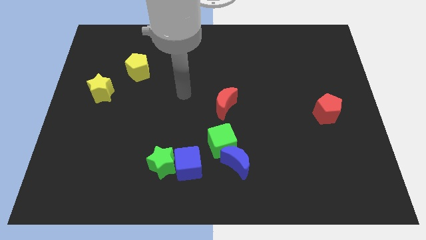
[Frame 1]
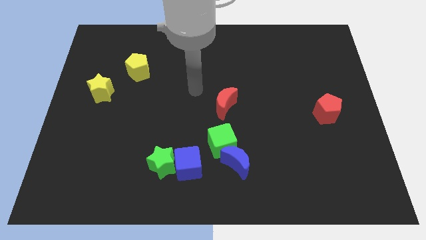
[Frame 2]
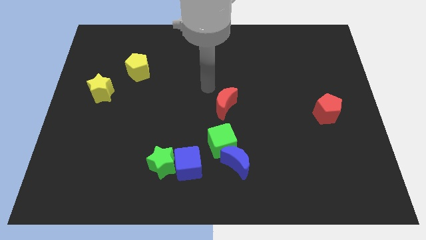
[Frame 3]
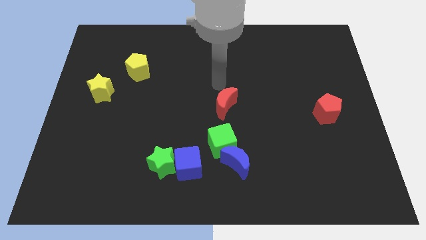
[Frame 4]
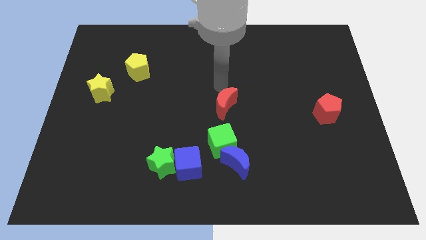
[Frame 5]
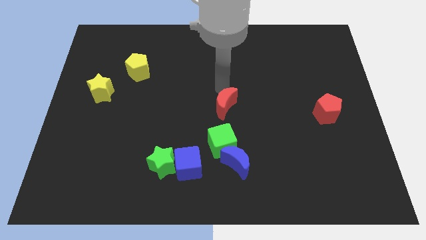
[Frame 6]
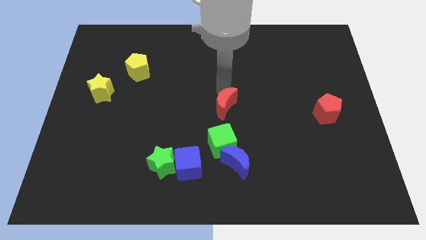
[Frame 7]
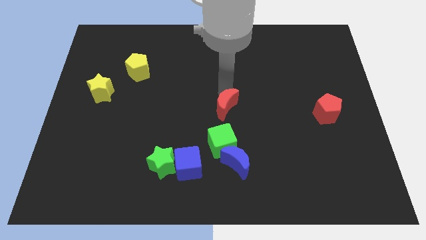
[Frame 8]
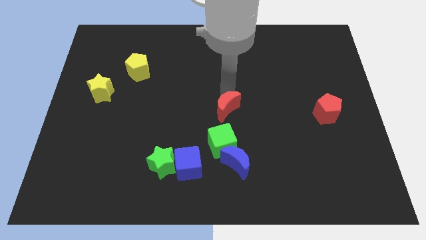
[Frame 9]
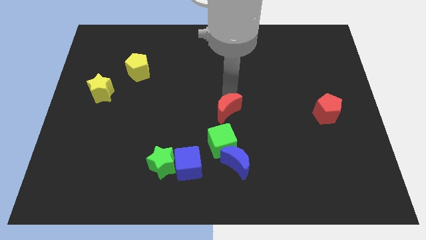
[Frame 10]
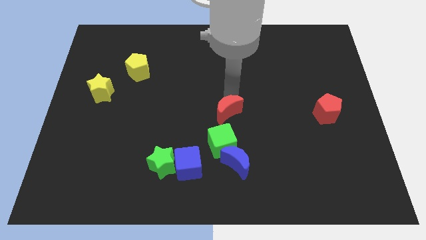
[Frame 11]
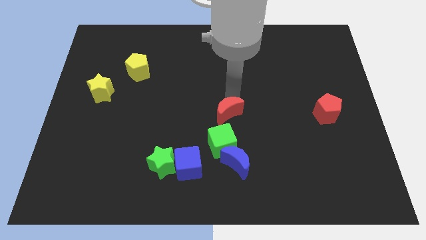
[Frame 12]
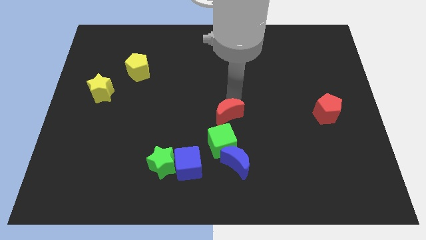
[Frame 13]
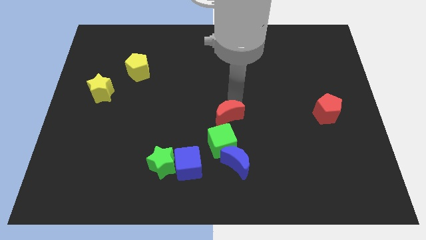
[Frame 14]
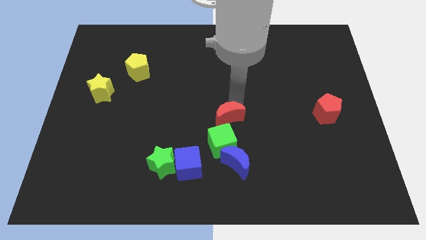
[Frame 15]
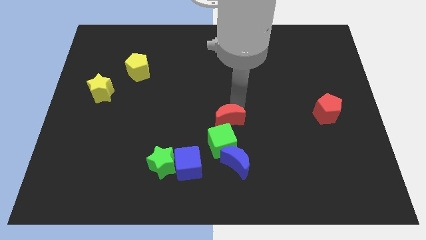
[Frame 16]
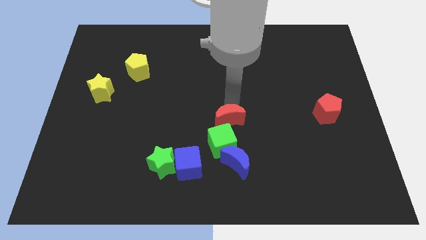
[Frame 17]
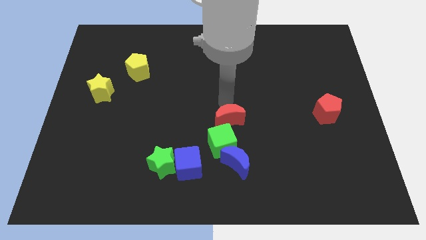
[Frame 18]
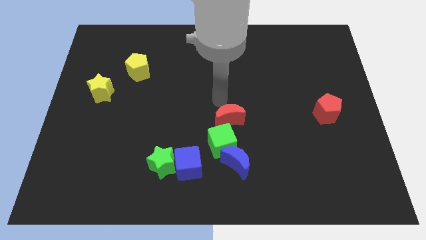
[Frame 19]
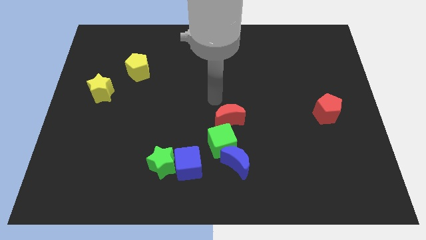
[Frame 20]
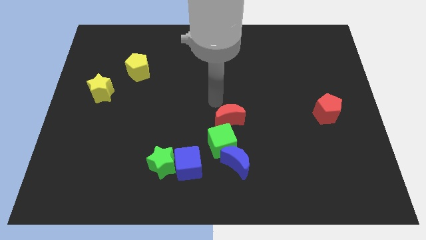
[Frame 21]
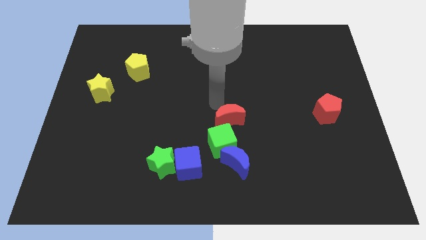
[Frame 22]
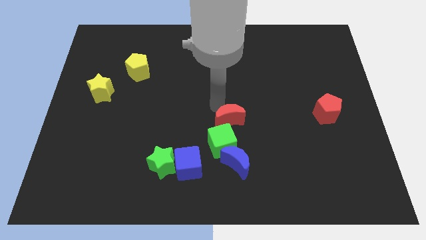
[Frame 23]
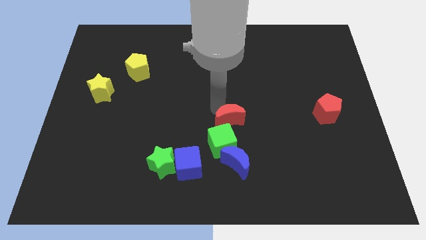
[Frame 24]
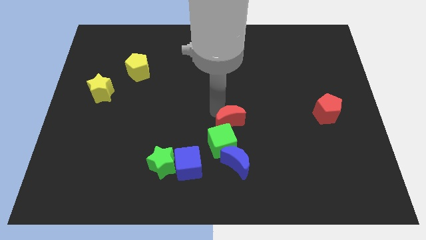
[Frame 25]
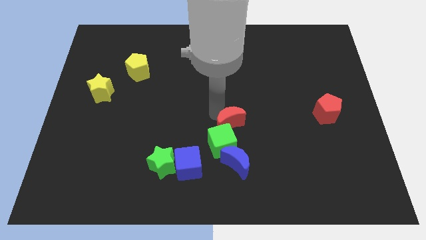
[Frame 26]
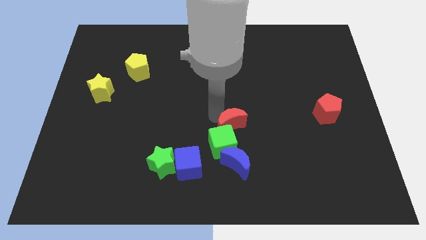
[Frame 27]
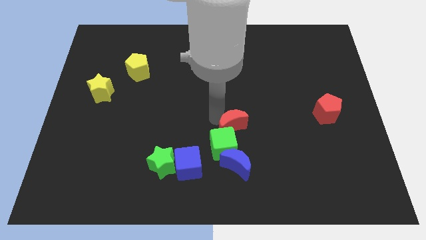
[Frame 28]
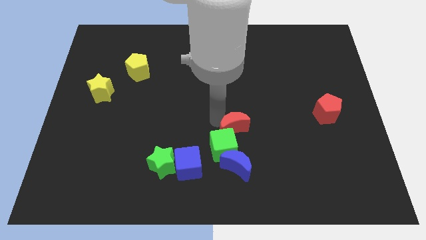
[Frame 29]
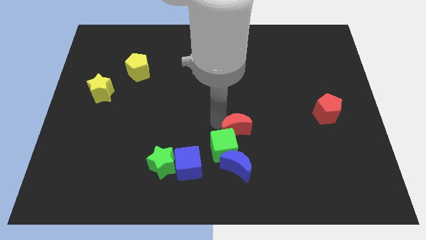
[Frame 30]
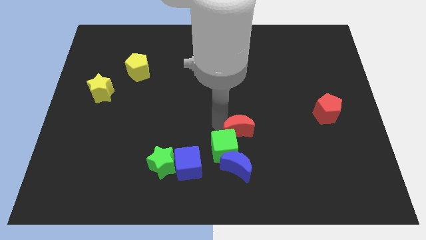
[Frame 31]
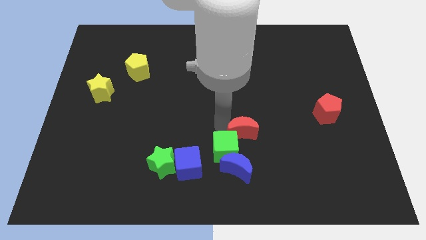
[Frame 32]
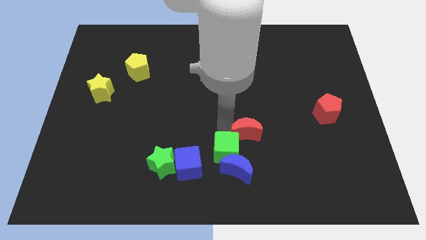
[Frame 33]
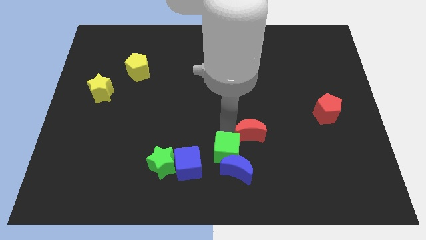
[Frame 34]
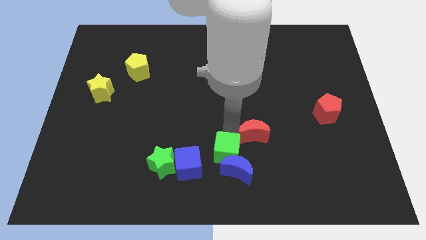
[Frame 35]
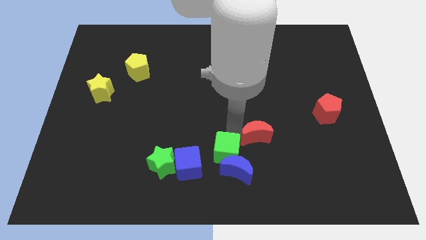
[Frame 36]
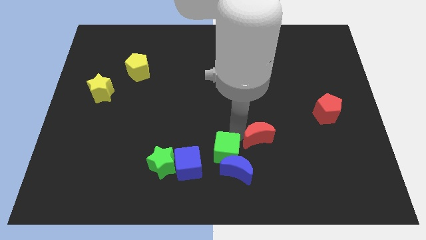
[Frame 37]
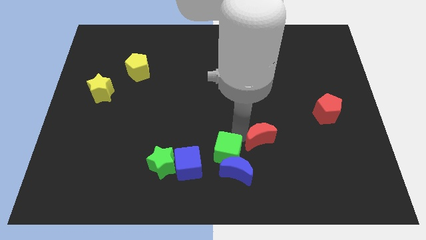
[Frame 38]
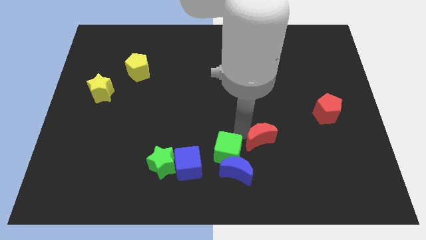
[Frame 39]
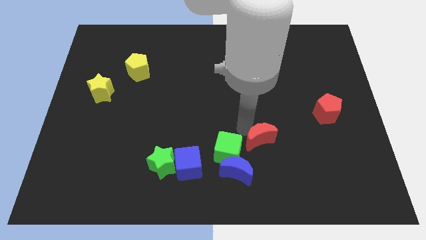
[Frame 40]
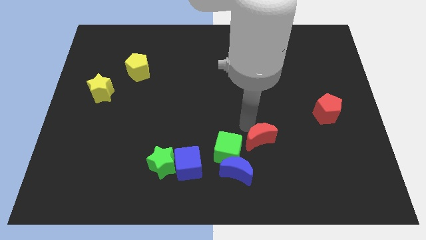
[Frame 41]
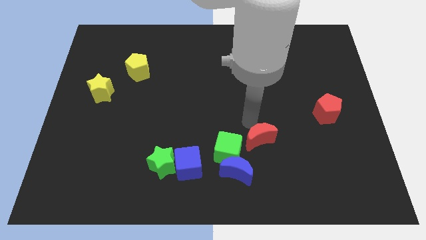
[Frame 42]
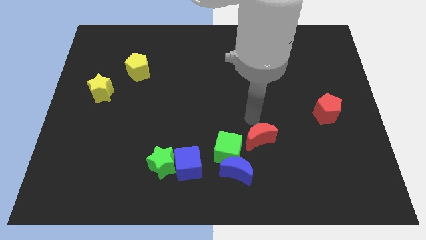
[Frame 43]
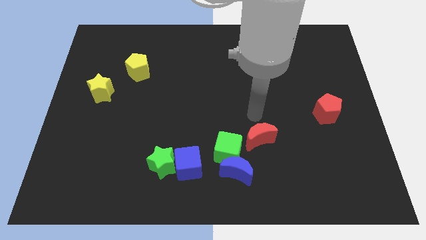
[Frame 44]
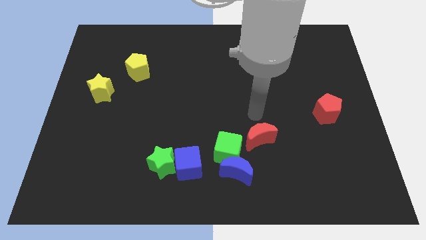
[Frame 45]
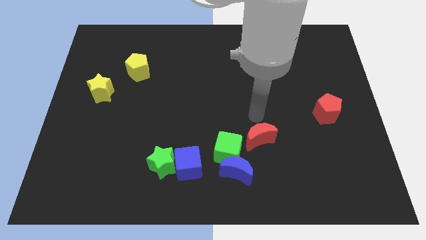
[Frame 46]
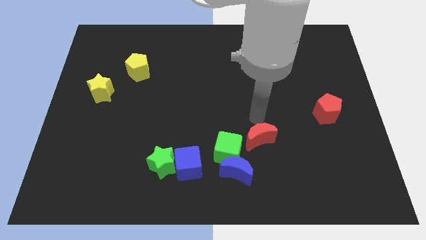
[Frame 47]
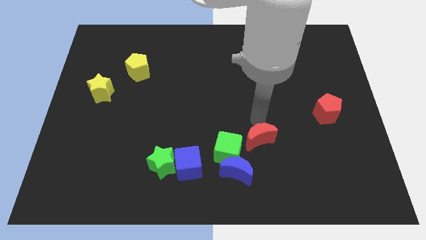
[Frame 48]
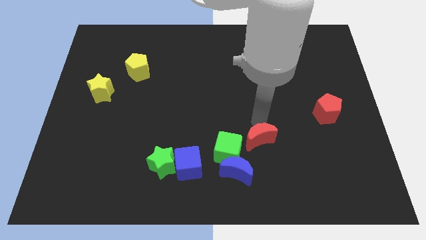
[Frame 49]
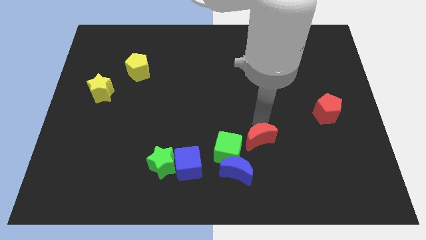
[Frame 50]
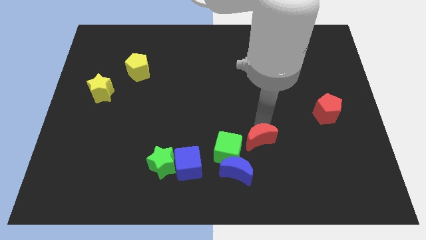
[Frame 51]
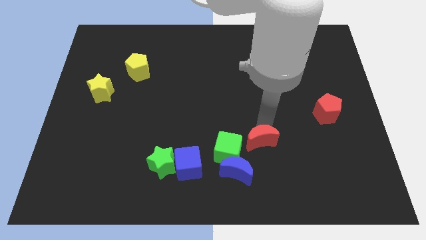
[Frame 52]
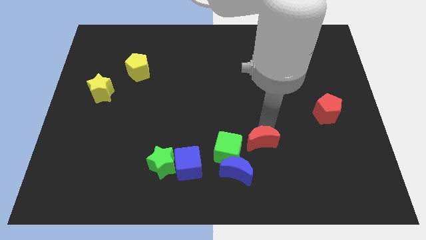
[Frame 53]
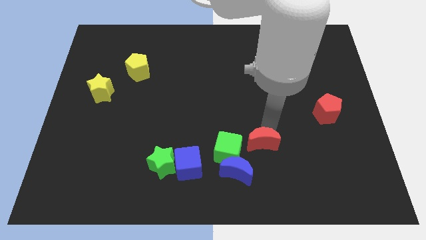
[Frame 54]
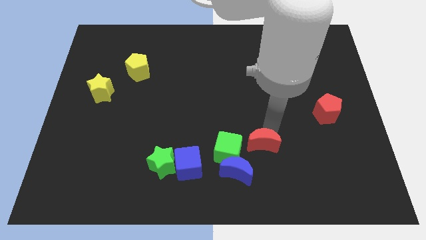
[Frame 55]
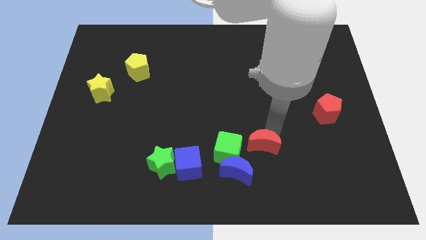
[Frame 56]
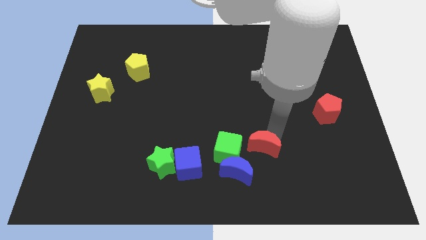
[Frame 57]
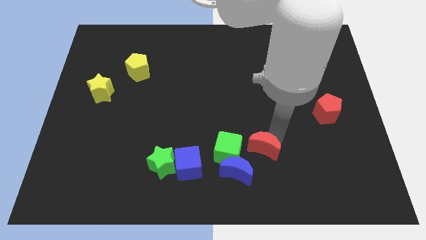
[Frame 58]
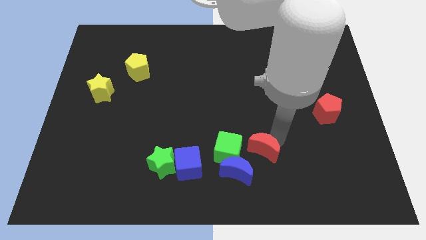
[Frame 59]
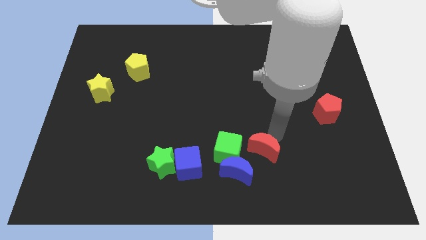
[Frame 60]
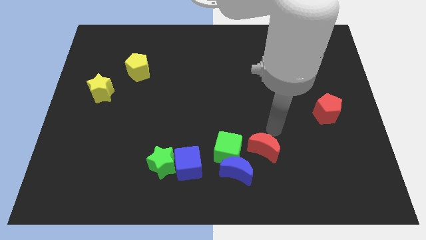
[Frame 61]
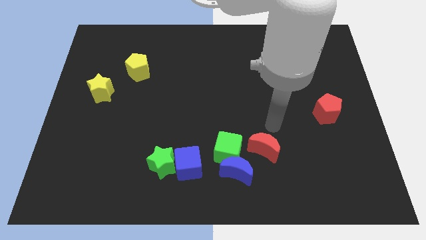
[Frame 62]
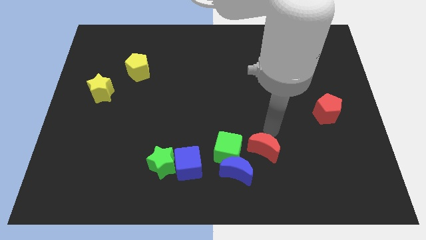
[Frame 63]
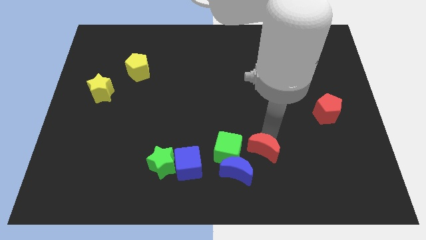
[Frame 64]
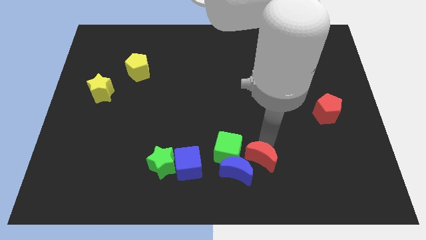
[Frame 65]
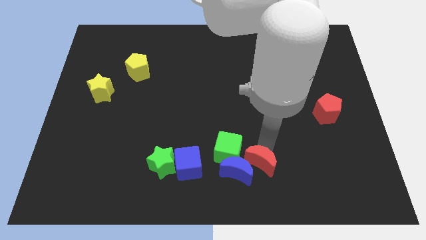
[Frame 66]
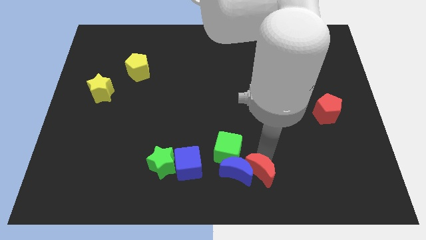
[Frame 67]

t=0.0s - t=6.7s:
put the red moon to the bottom
